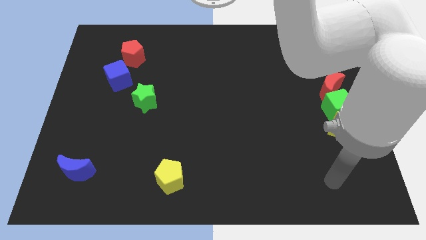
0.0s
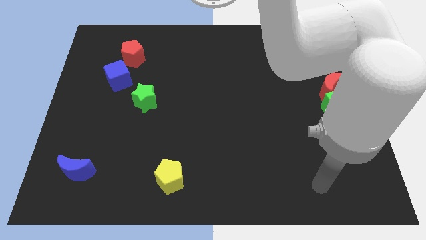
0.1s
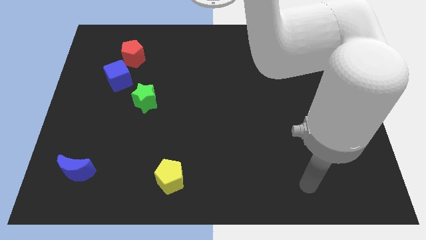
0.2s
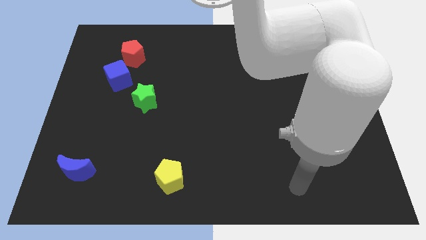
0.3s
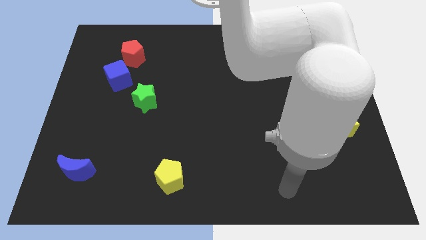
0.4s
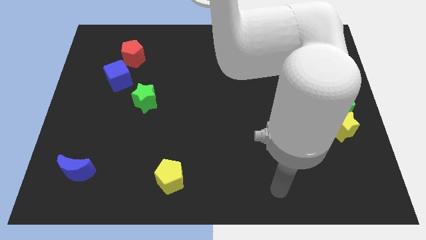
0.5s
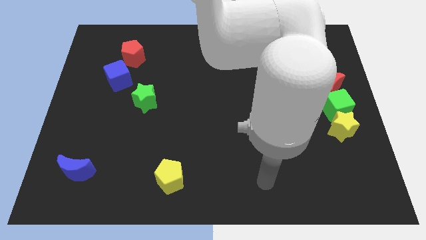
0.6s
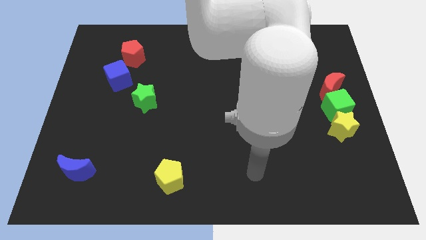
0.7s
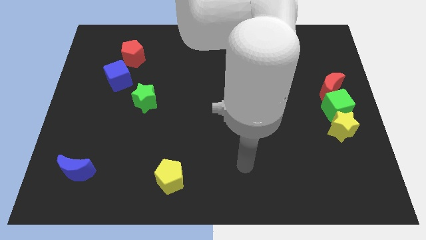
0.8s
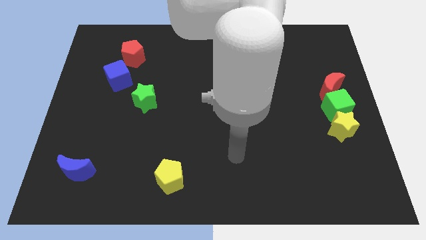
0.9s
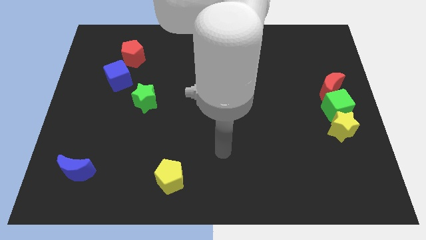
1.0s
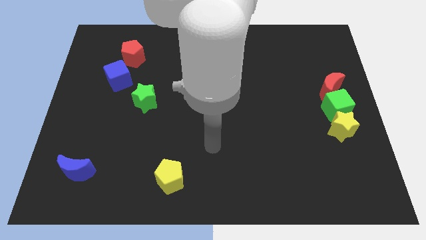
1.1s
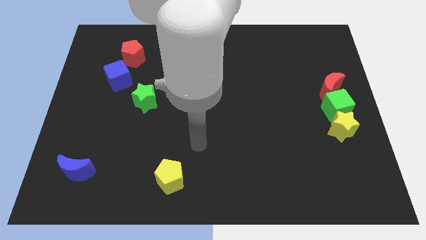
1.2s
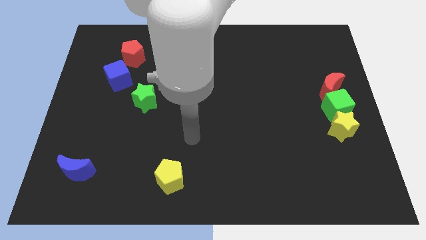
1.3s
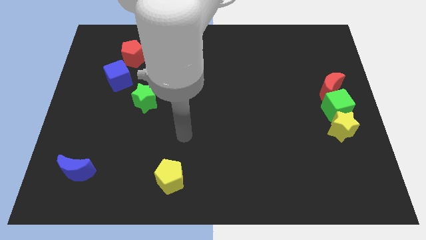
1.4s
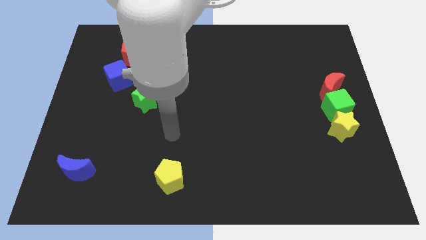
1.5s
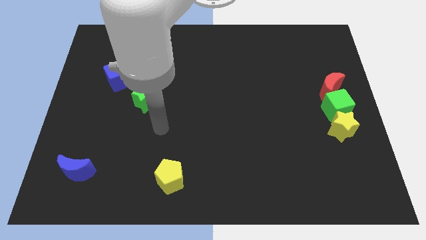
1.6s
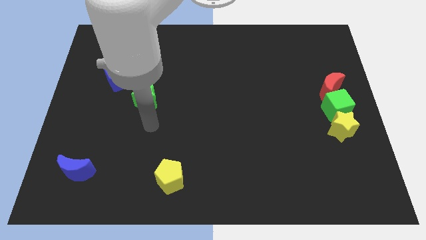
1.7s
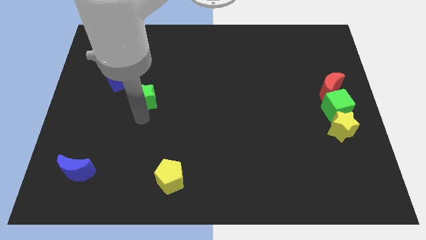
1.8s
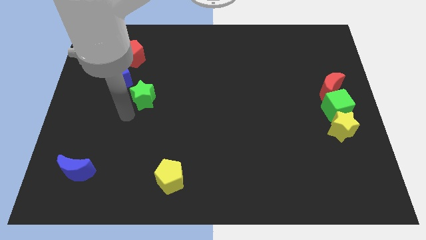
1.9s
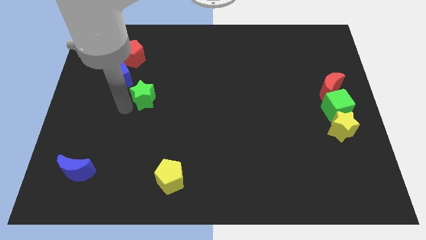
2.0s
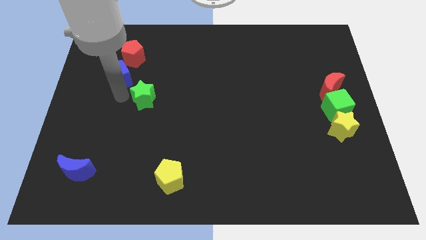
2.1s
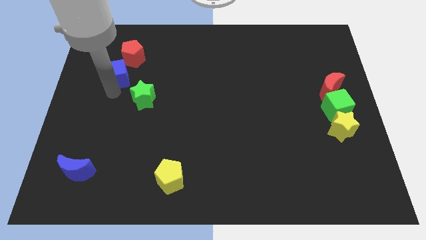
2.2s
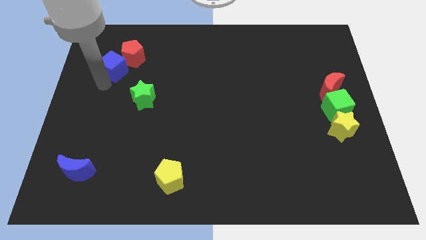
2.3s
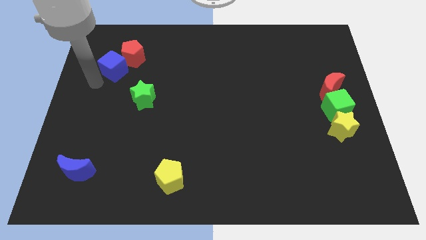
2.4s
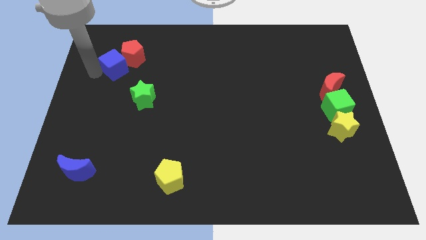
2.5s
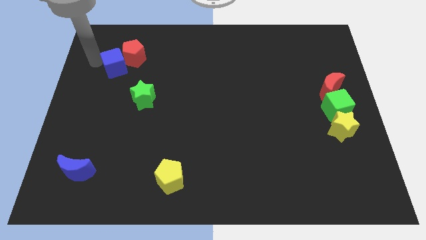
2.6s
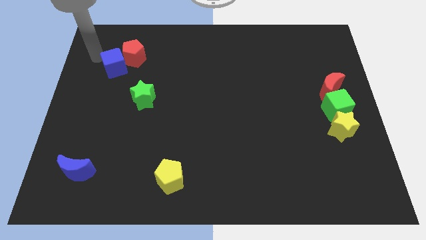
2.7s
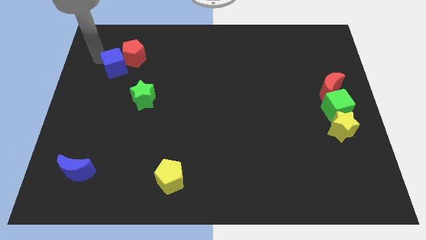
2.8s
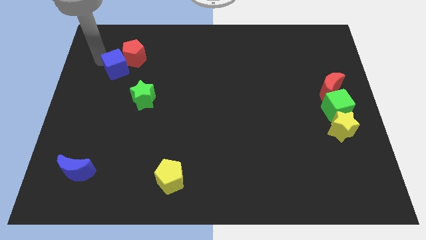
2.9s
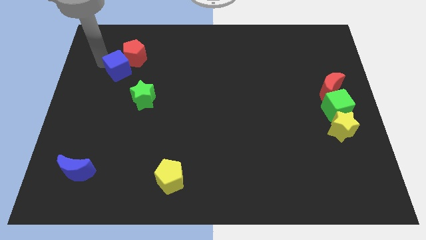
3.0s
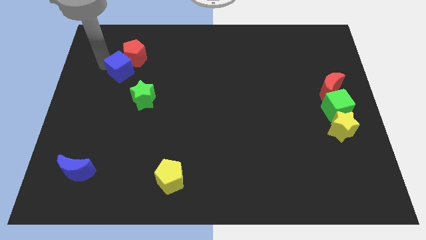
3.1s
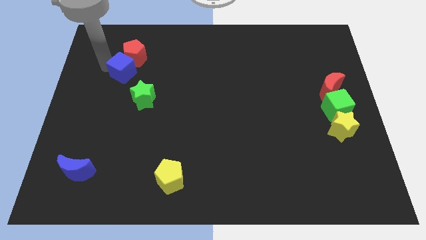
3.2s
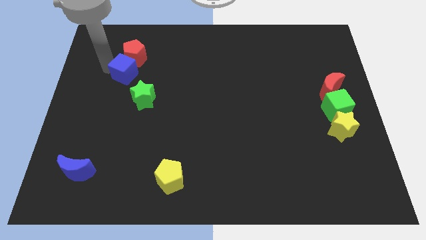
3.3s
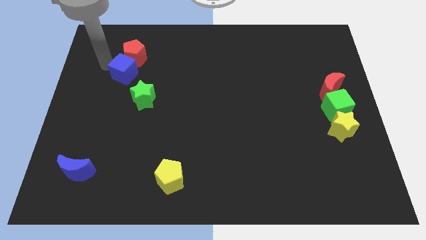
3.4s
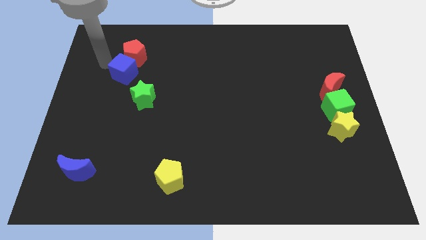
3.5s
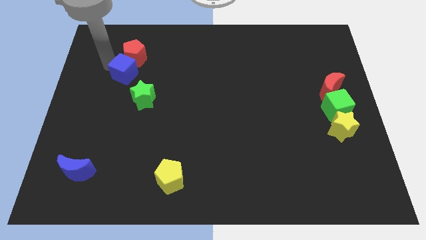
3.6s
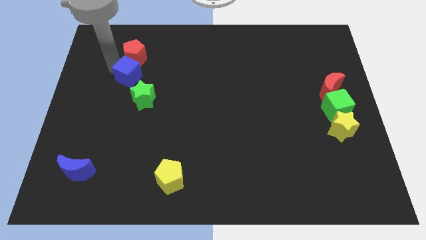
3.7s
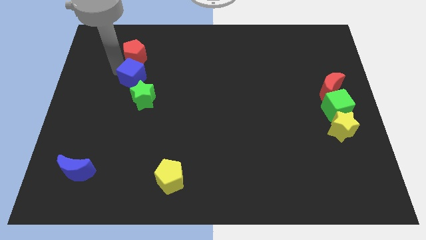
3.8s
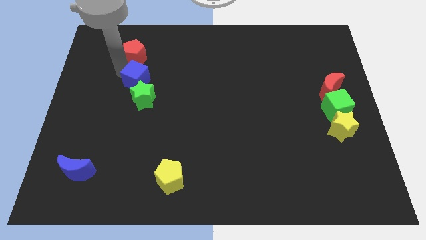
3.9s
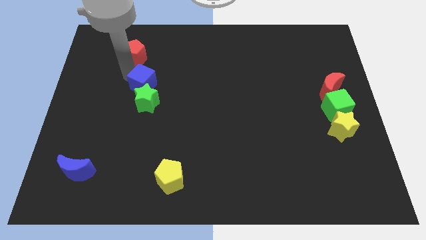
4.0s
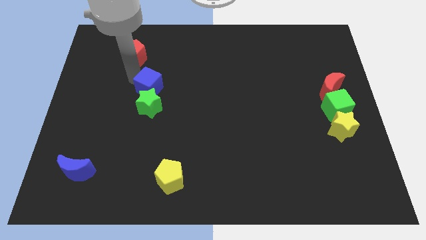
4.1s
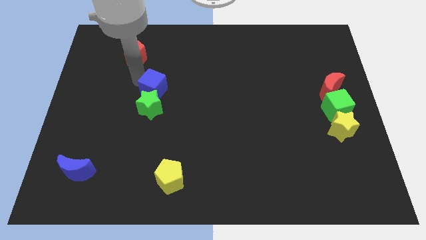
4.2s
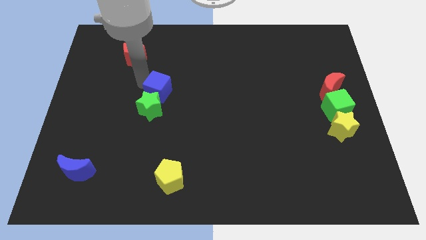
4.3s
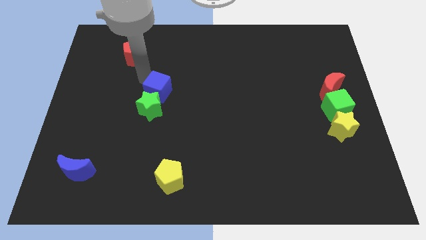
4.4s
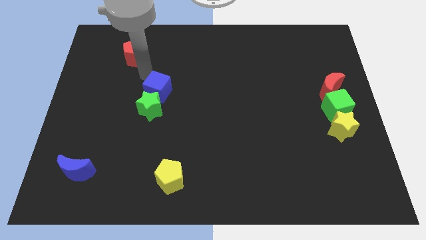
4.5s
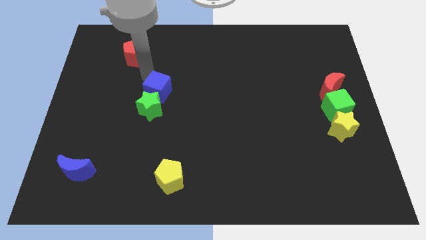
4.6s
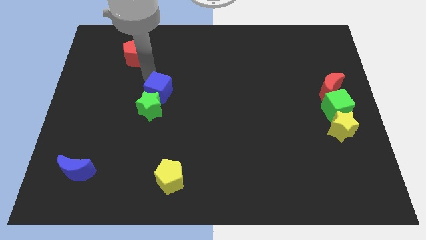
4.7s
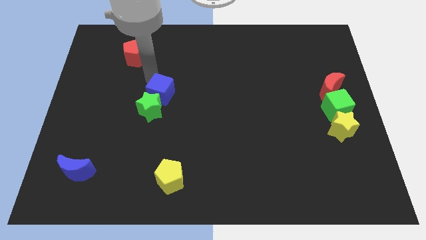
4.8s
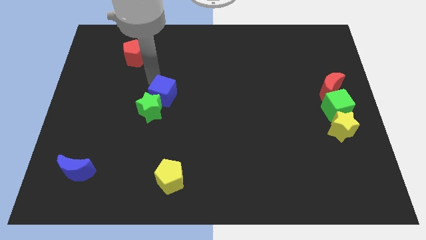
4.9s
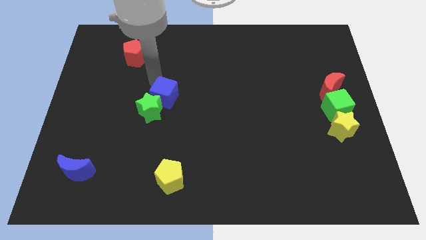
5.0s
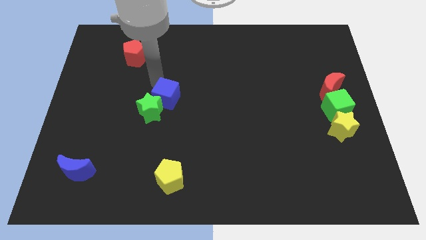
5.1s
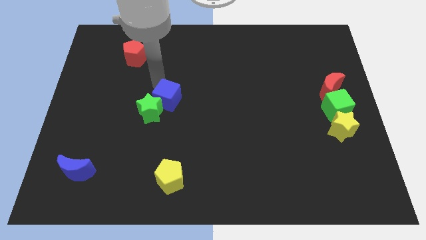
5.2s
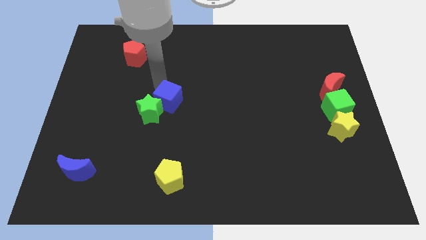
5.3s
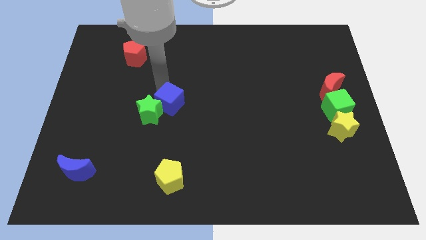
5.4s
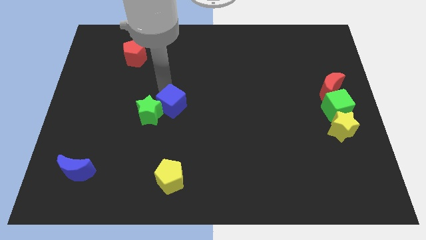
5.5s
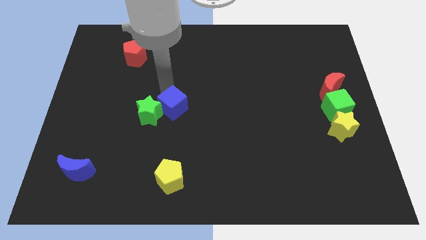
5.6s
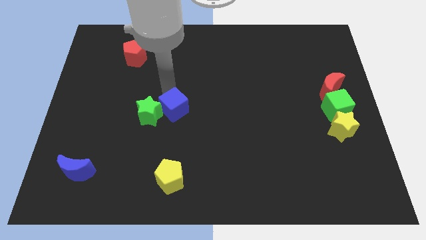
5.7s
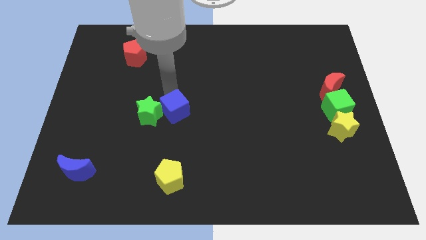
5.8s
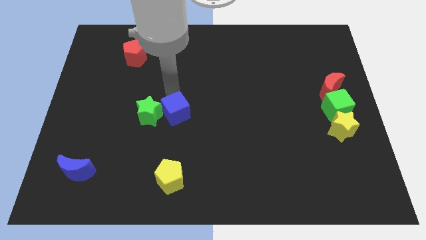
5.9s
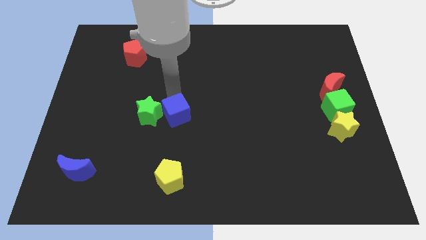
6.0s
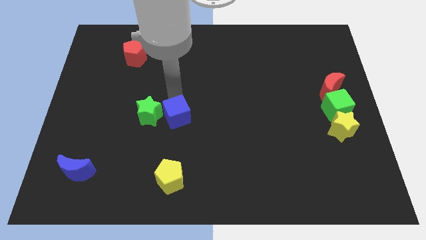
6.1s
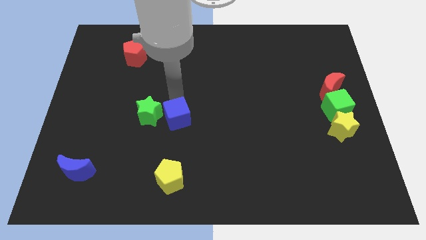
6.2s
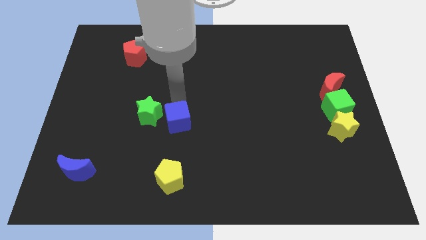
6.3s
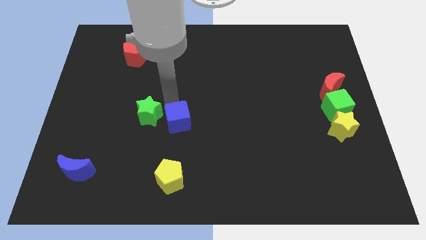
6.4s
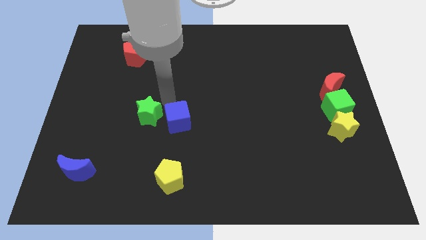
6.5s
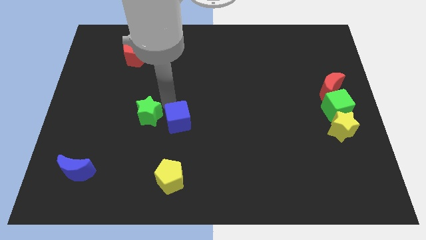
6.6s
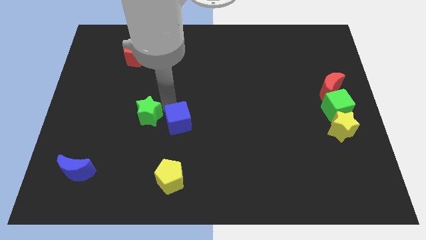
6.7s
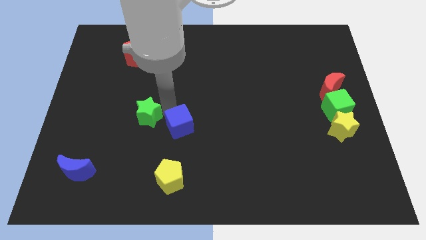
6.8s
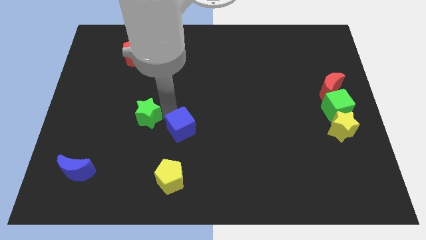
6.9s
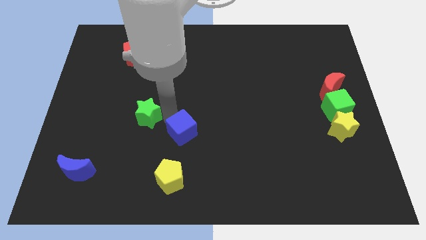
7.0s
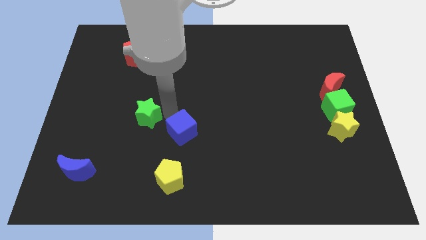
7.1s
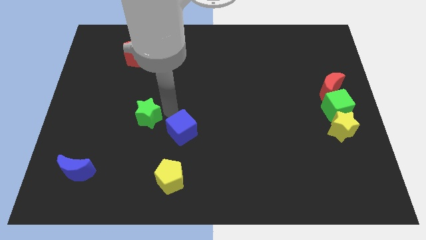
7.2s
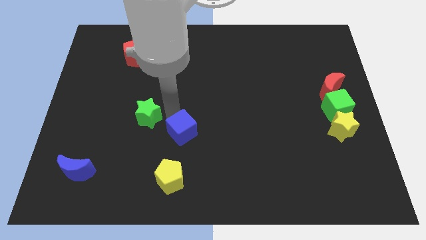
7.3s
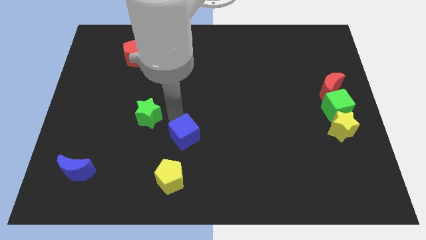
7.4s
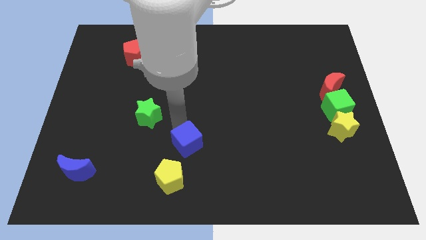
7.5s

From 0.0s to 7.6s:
move the blue cube diagonally up and to the right of the yellow pentagon
